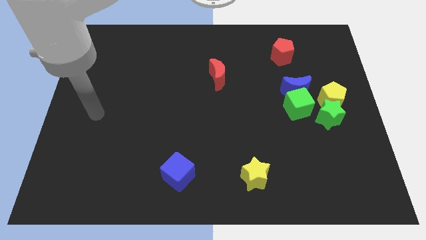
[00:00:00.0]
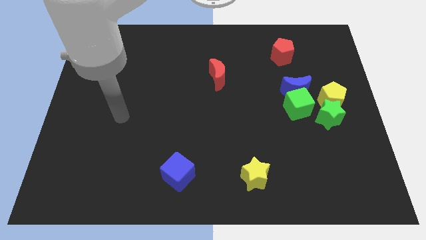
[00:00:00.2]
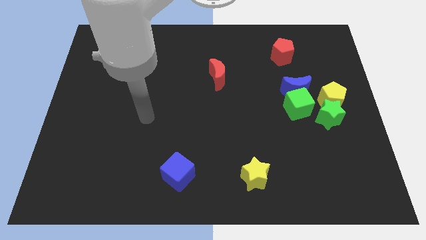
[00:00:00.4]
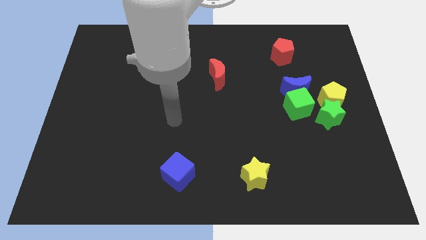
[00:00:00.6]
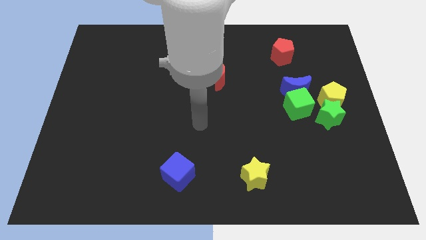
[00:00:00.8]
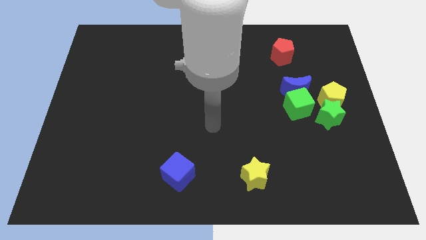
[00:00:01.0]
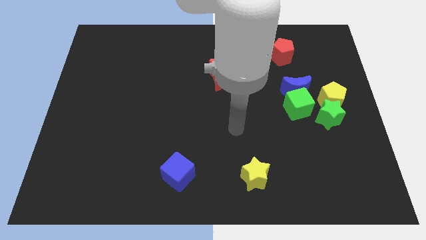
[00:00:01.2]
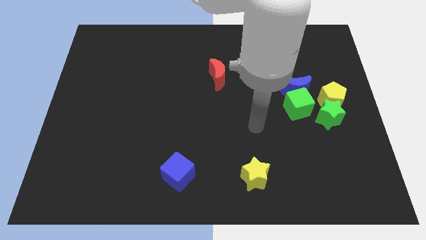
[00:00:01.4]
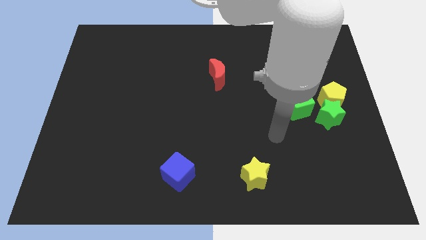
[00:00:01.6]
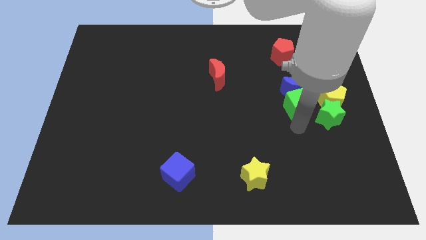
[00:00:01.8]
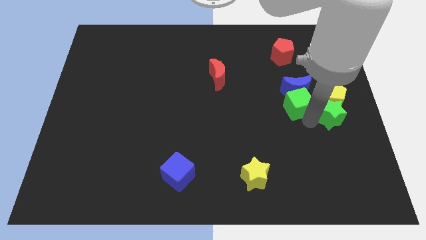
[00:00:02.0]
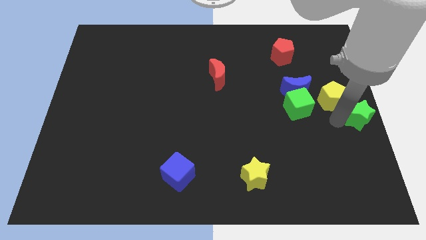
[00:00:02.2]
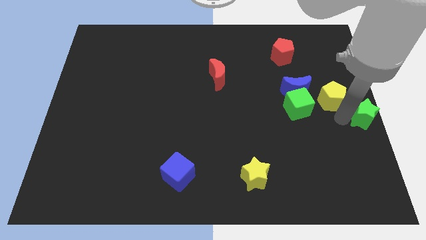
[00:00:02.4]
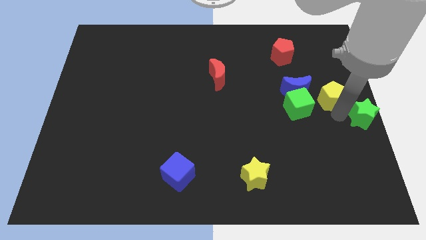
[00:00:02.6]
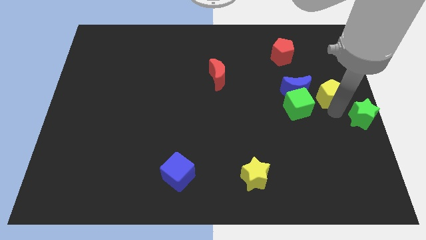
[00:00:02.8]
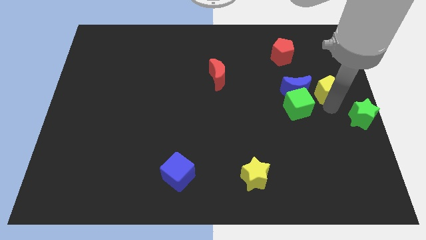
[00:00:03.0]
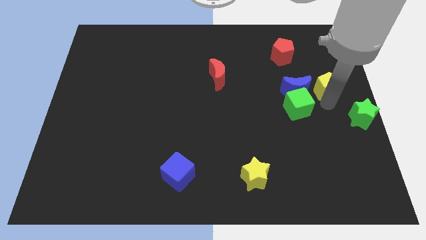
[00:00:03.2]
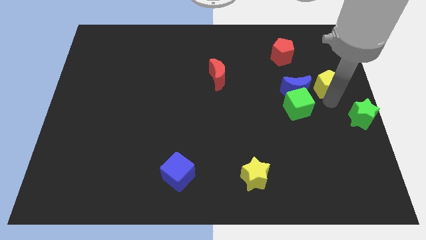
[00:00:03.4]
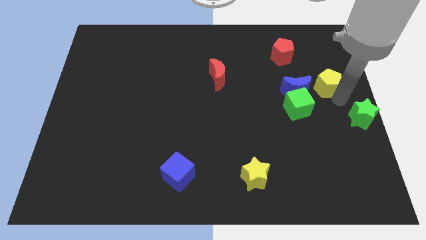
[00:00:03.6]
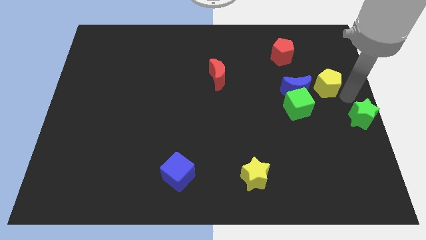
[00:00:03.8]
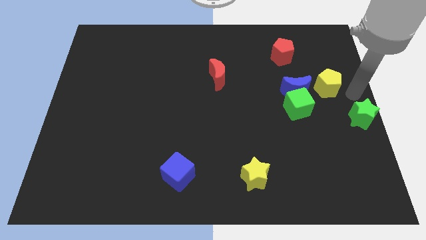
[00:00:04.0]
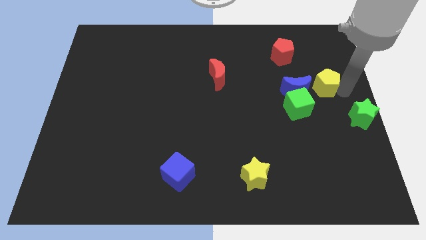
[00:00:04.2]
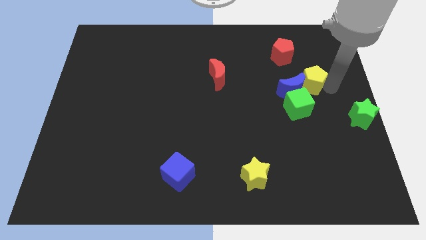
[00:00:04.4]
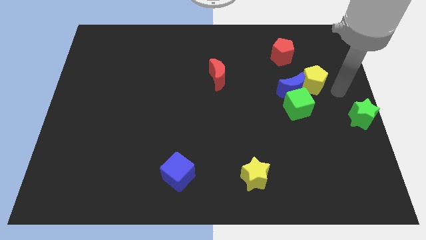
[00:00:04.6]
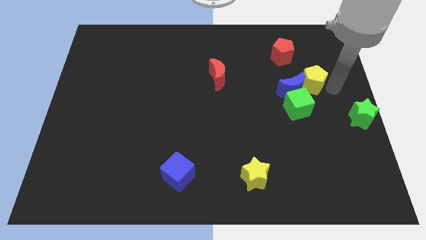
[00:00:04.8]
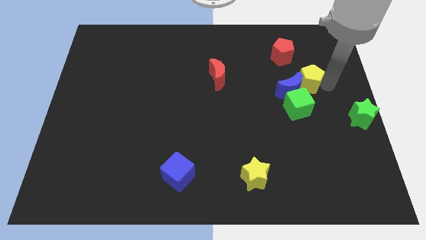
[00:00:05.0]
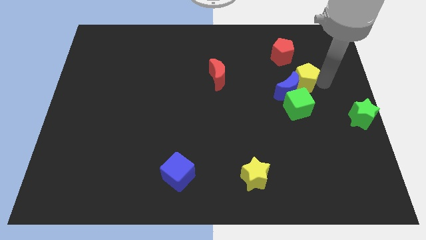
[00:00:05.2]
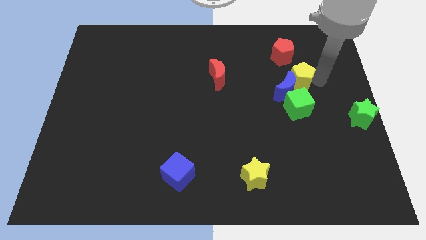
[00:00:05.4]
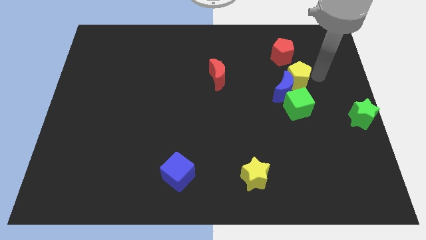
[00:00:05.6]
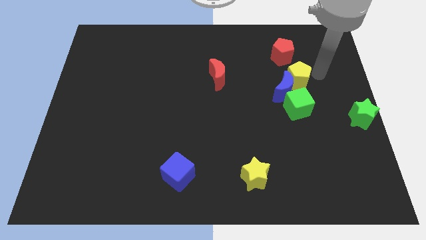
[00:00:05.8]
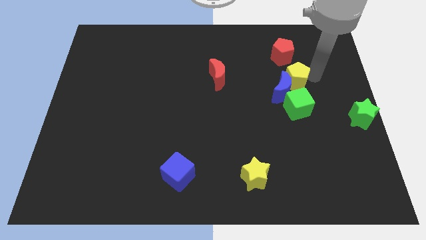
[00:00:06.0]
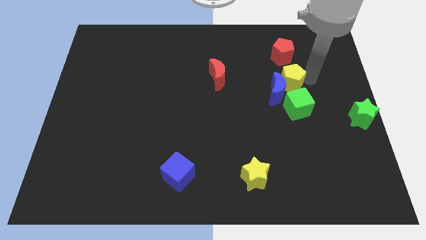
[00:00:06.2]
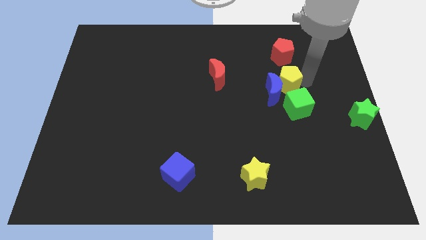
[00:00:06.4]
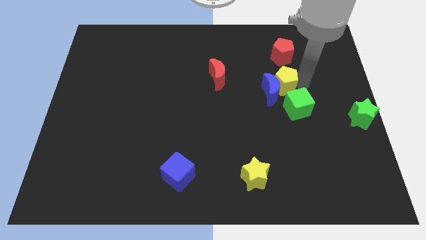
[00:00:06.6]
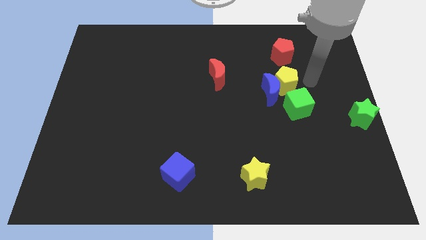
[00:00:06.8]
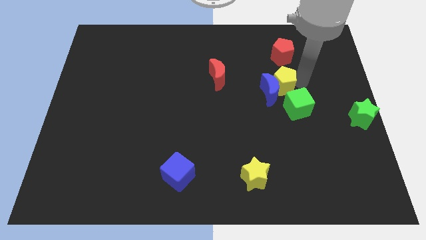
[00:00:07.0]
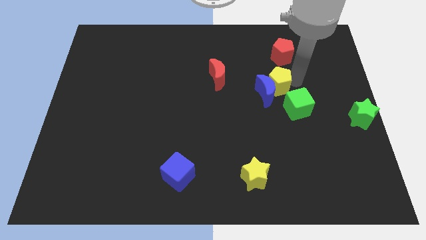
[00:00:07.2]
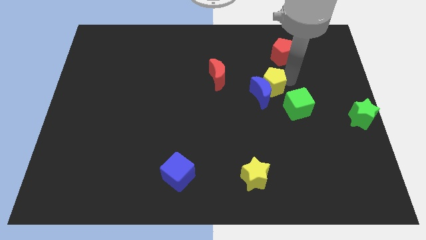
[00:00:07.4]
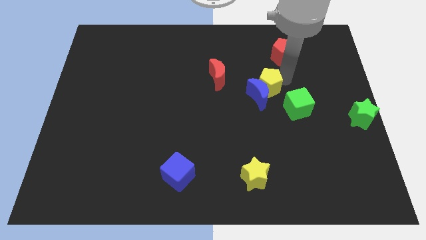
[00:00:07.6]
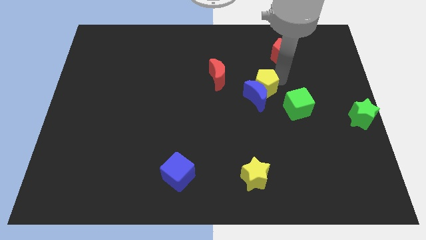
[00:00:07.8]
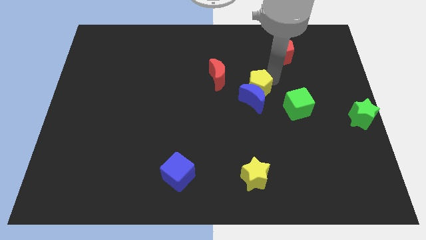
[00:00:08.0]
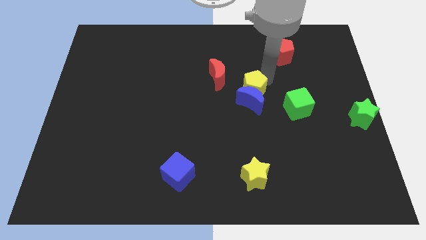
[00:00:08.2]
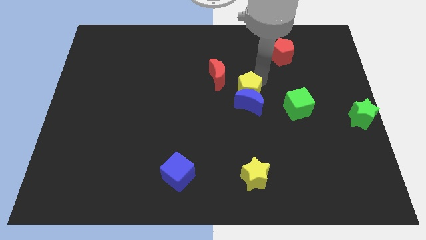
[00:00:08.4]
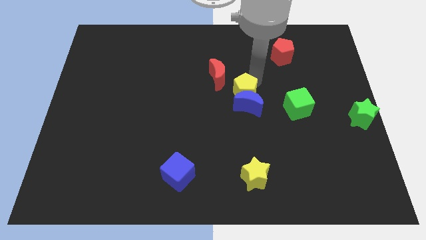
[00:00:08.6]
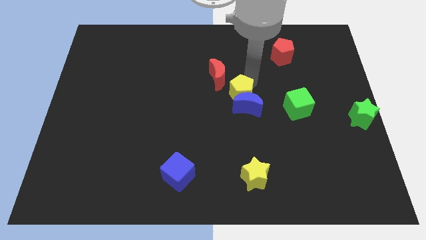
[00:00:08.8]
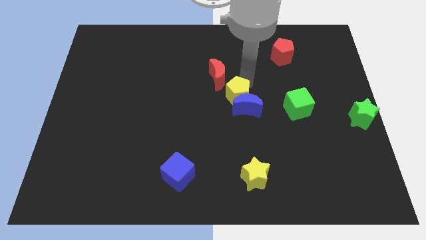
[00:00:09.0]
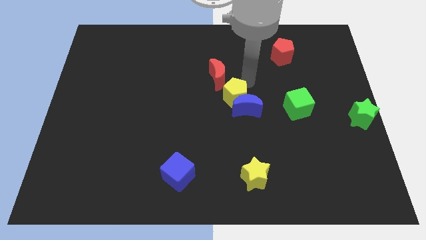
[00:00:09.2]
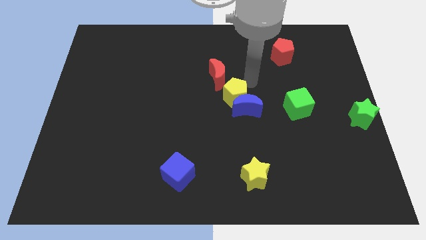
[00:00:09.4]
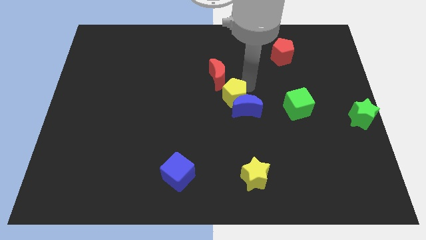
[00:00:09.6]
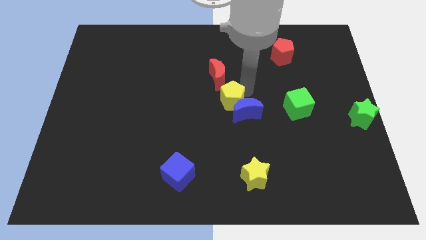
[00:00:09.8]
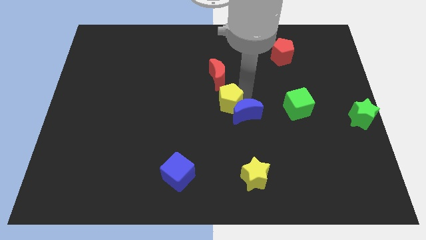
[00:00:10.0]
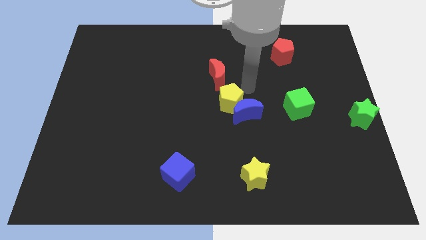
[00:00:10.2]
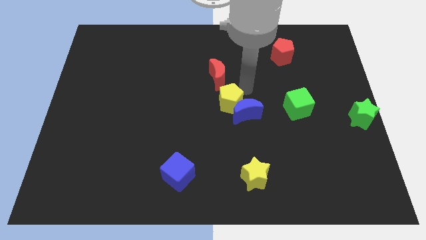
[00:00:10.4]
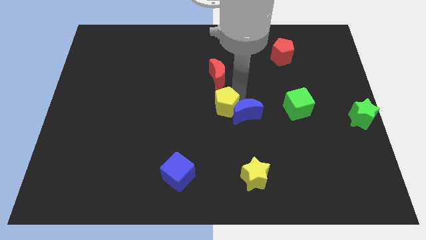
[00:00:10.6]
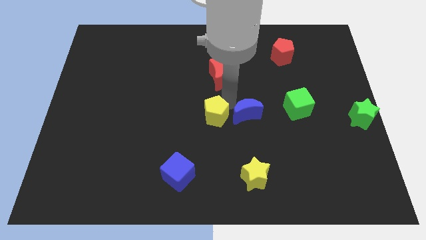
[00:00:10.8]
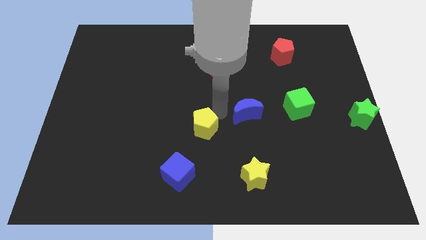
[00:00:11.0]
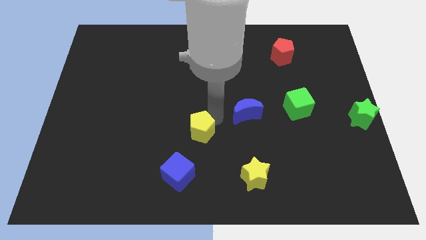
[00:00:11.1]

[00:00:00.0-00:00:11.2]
slide the yellow pentagon above the blue cube

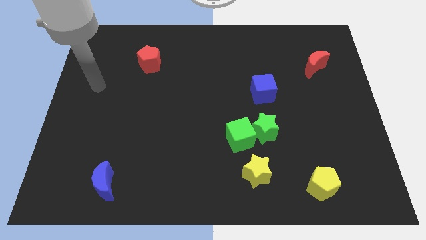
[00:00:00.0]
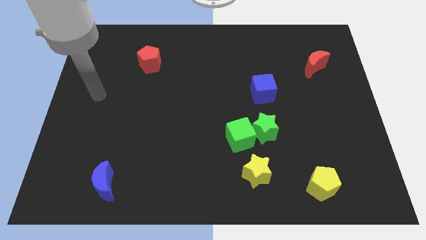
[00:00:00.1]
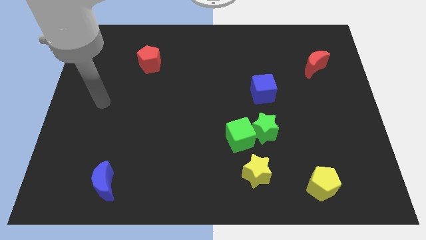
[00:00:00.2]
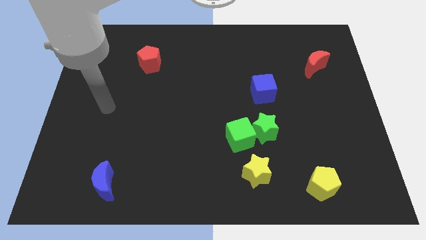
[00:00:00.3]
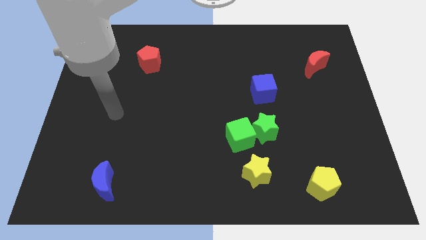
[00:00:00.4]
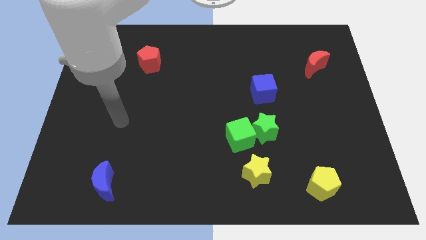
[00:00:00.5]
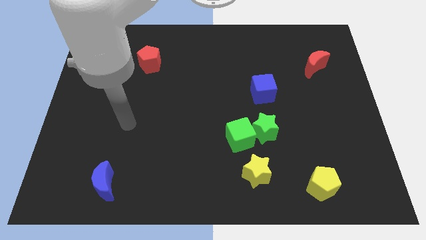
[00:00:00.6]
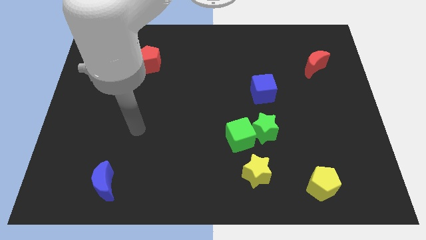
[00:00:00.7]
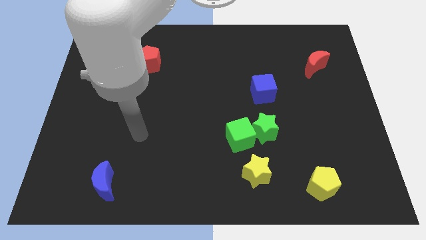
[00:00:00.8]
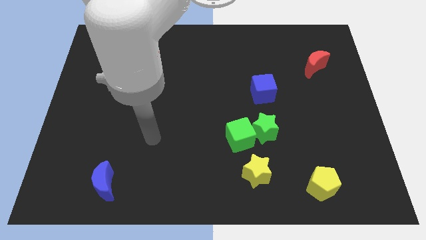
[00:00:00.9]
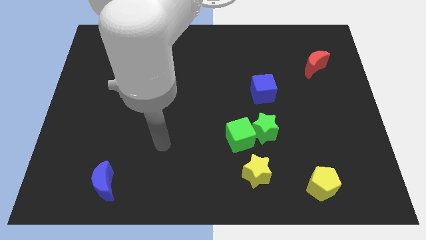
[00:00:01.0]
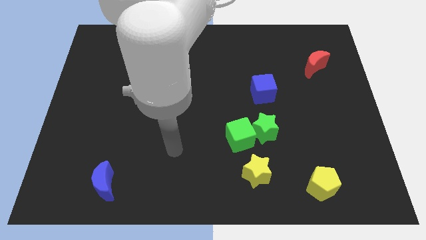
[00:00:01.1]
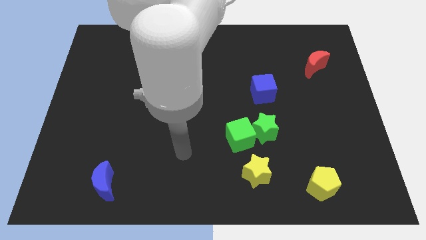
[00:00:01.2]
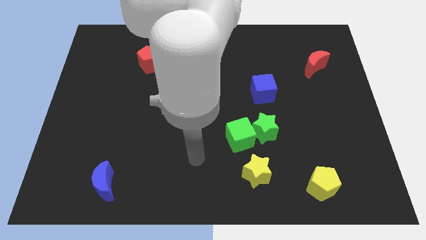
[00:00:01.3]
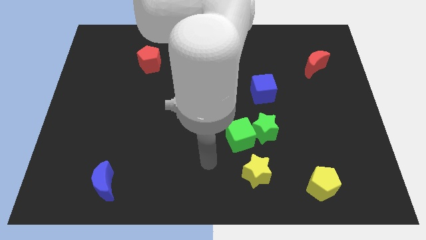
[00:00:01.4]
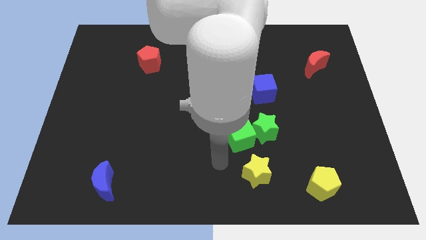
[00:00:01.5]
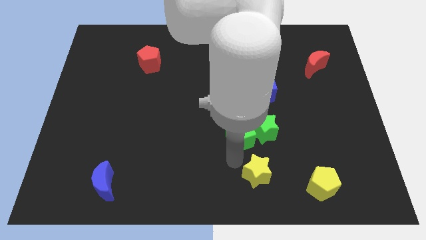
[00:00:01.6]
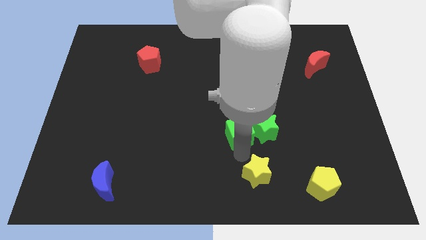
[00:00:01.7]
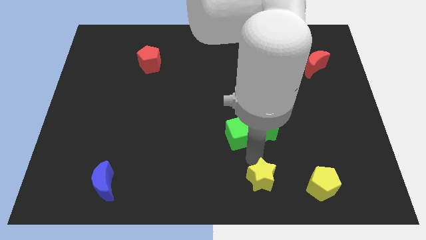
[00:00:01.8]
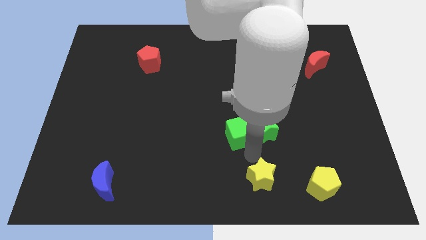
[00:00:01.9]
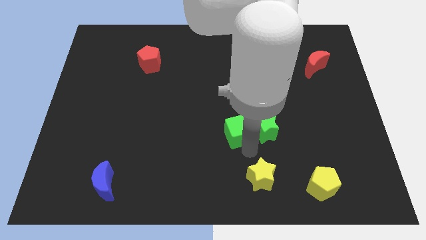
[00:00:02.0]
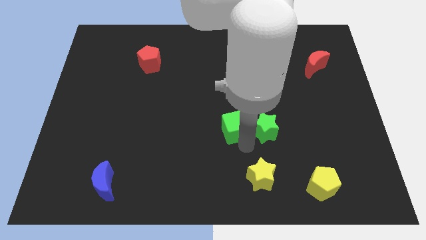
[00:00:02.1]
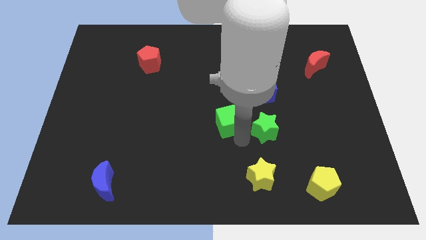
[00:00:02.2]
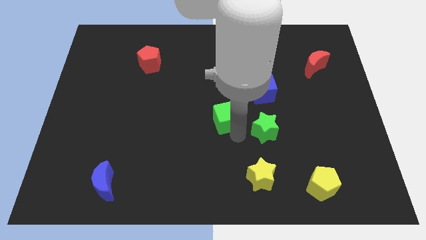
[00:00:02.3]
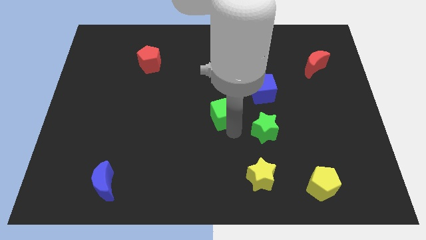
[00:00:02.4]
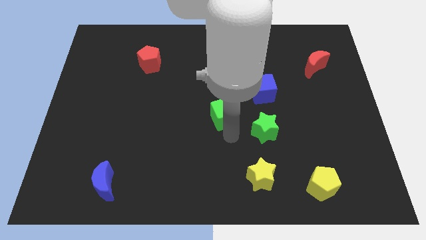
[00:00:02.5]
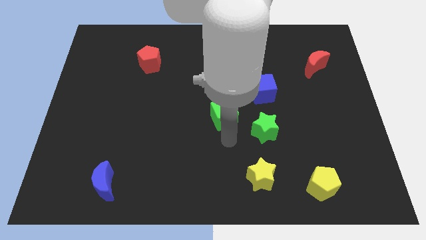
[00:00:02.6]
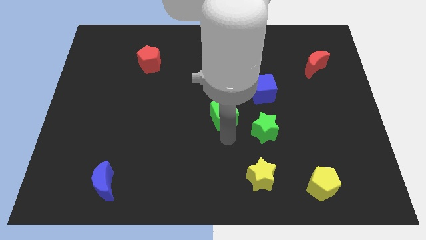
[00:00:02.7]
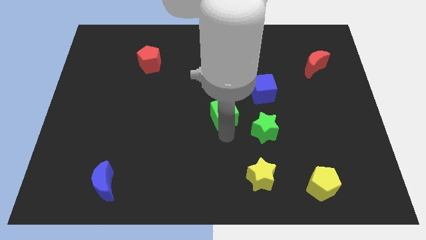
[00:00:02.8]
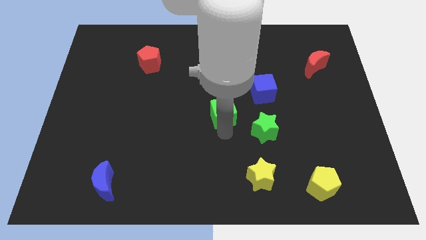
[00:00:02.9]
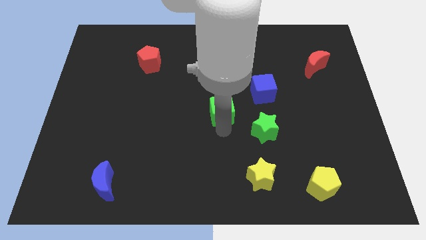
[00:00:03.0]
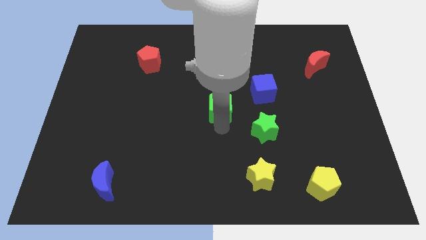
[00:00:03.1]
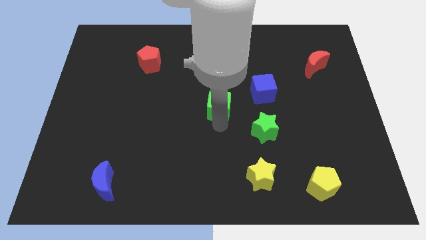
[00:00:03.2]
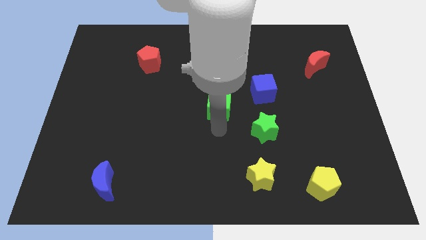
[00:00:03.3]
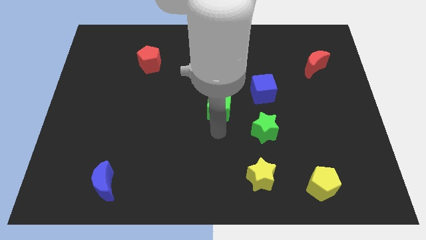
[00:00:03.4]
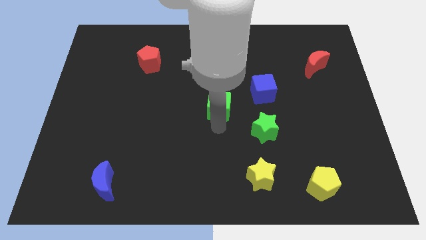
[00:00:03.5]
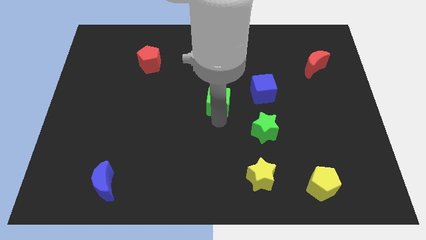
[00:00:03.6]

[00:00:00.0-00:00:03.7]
put the green cube to the left of the blue cube
